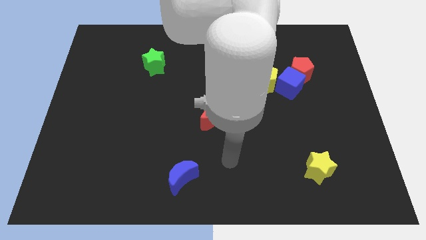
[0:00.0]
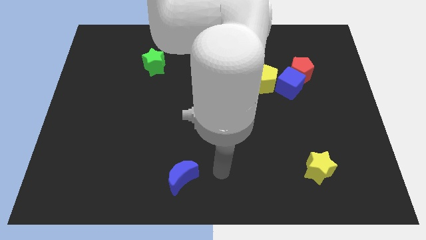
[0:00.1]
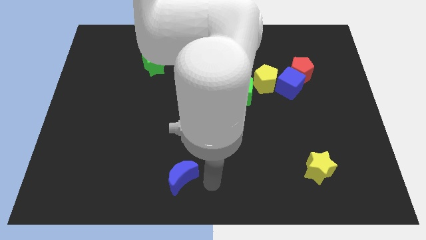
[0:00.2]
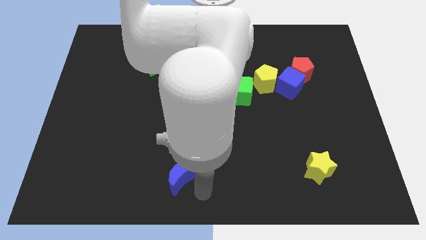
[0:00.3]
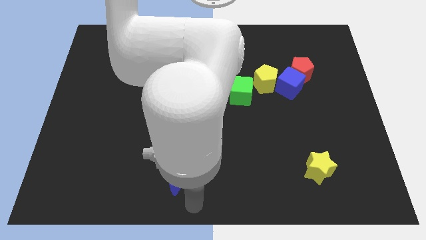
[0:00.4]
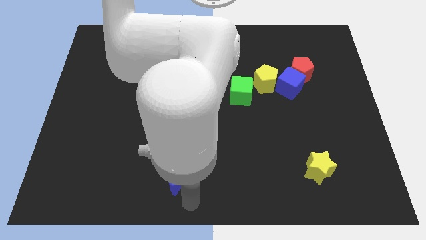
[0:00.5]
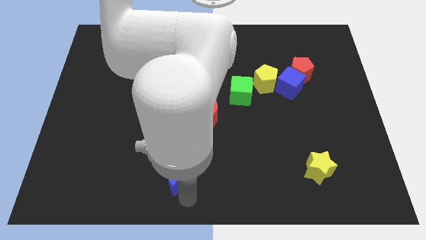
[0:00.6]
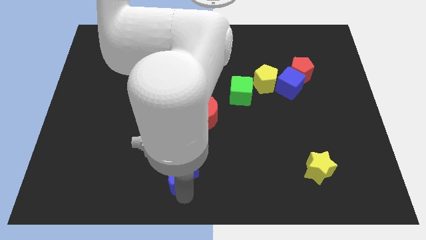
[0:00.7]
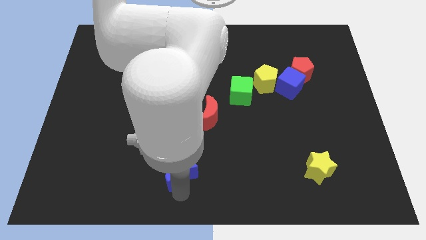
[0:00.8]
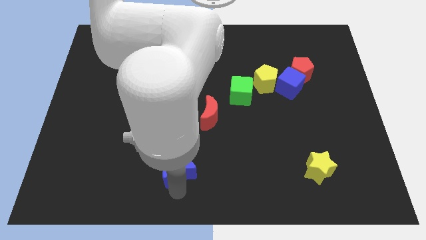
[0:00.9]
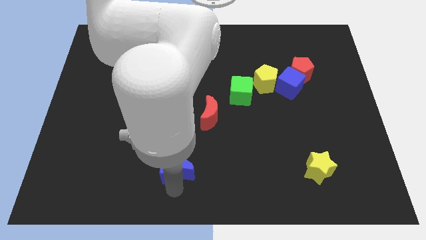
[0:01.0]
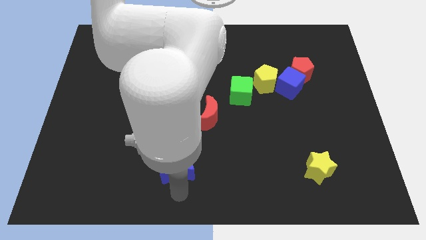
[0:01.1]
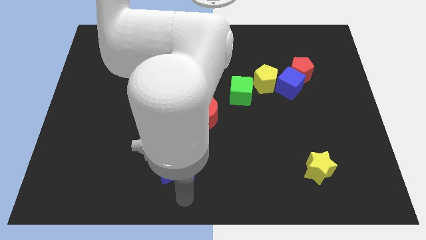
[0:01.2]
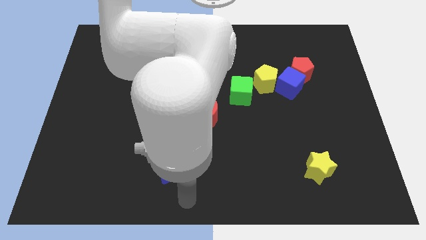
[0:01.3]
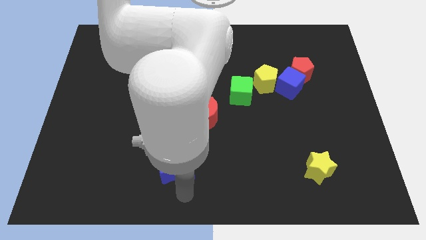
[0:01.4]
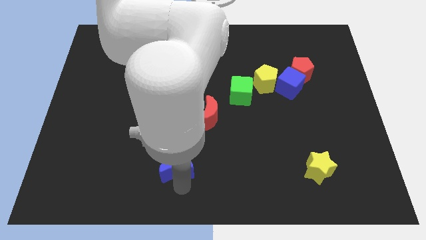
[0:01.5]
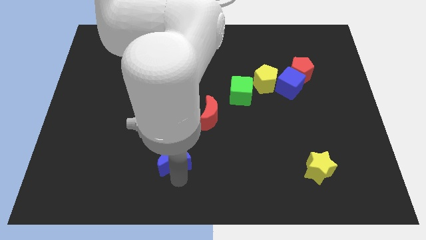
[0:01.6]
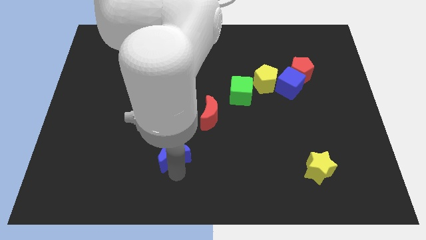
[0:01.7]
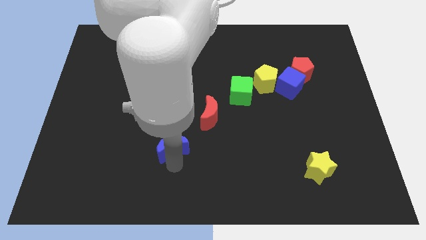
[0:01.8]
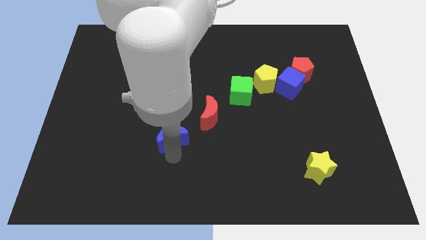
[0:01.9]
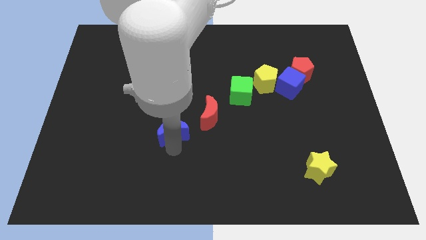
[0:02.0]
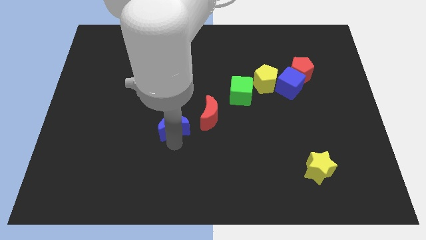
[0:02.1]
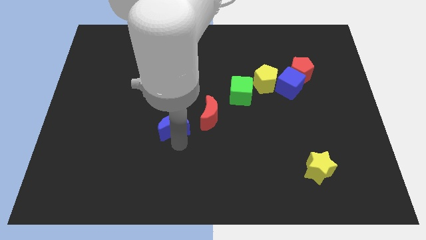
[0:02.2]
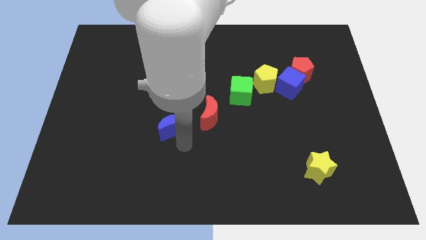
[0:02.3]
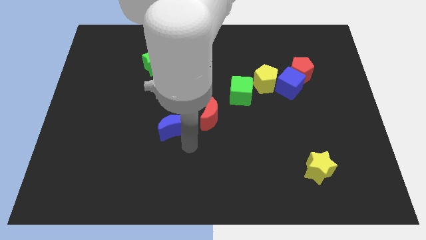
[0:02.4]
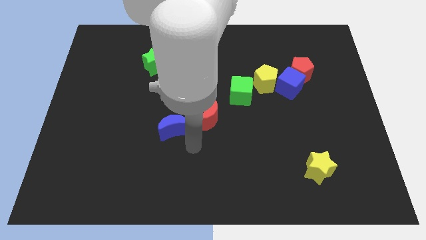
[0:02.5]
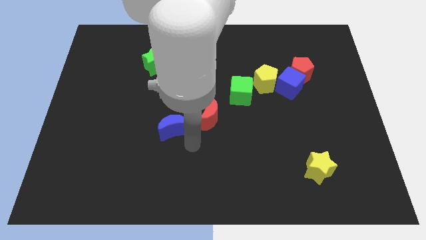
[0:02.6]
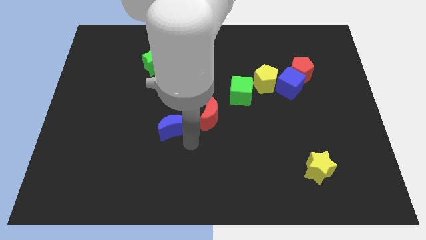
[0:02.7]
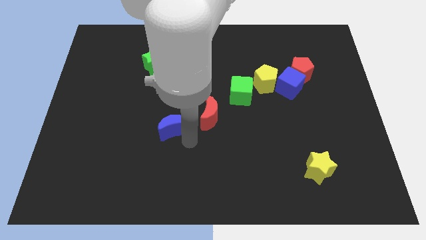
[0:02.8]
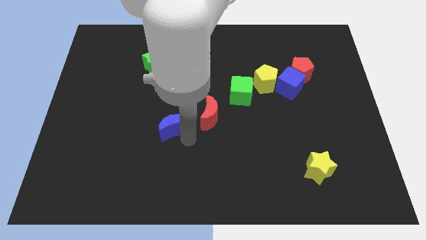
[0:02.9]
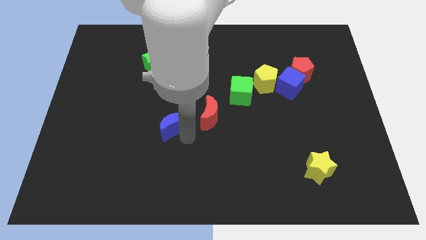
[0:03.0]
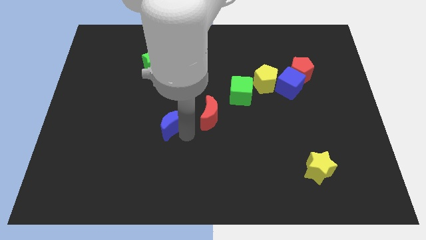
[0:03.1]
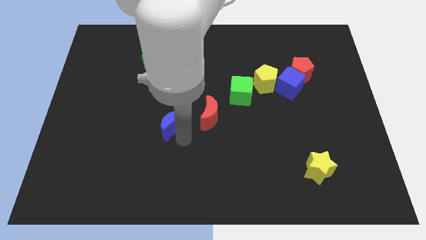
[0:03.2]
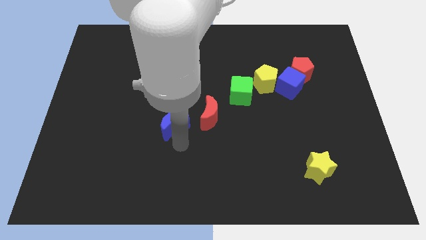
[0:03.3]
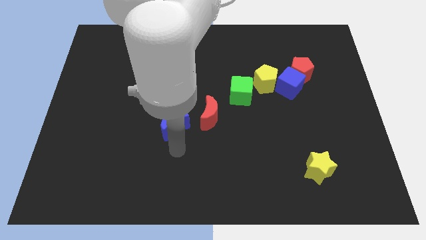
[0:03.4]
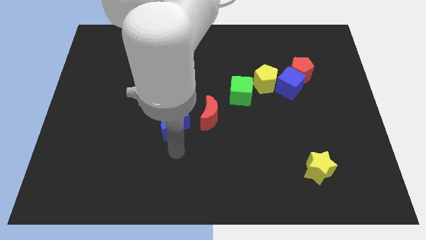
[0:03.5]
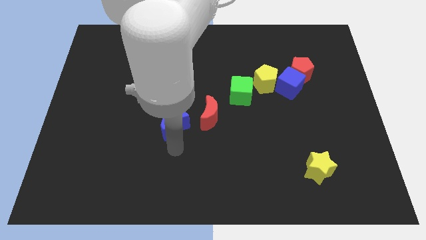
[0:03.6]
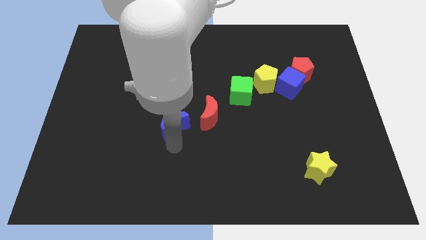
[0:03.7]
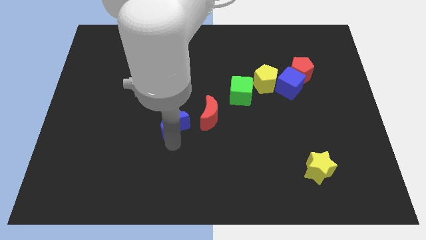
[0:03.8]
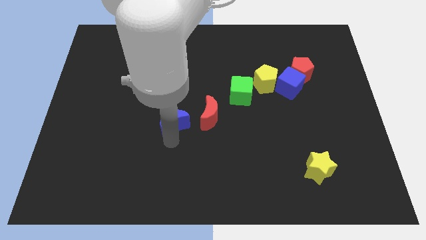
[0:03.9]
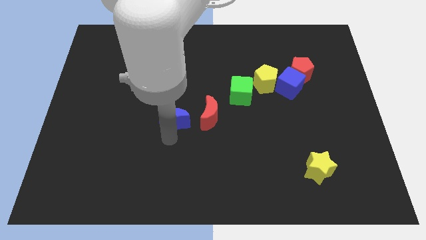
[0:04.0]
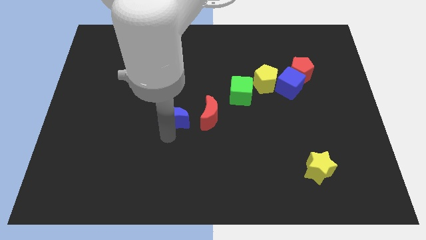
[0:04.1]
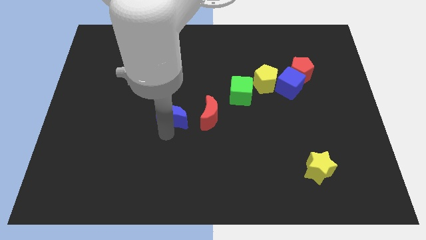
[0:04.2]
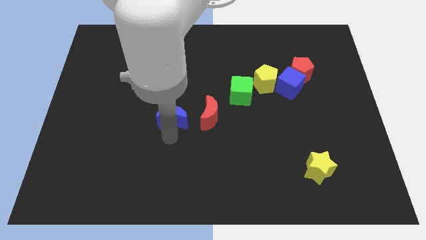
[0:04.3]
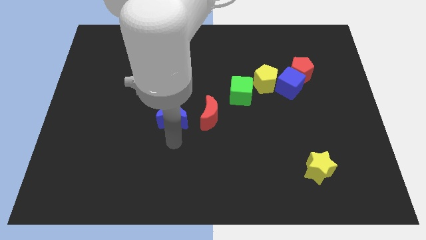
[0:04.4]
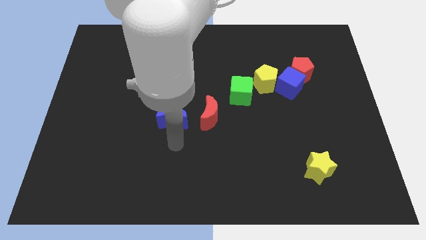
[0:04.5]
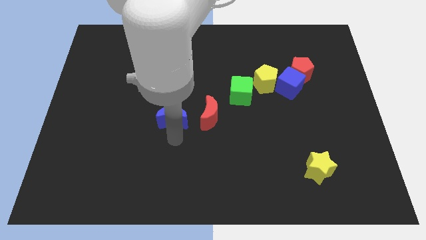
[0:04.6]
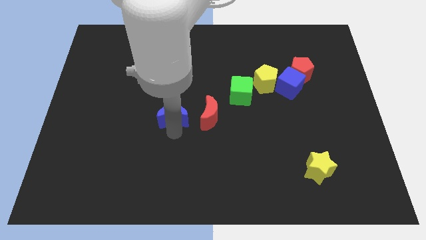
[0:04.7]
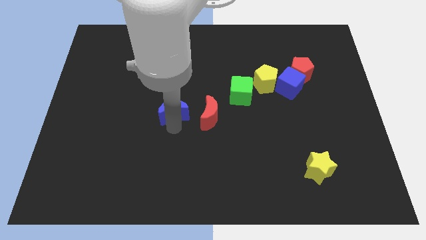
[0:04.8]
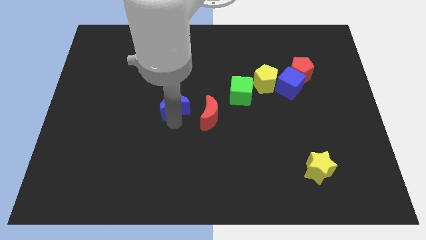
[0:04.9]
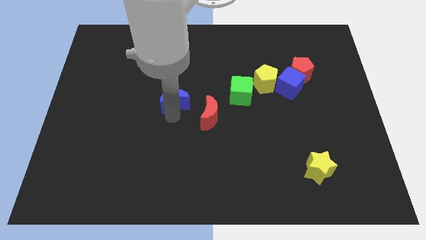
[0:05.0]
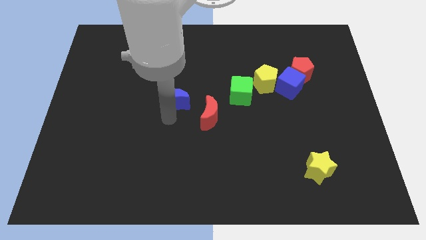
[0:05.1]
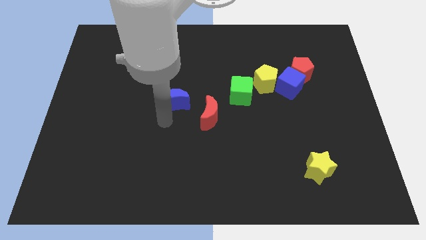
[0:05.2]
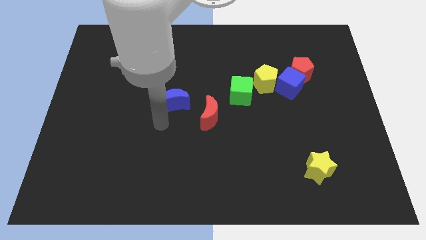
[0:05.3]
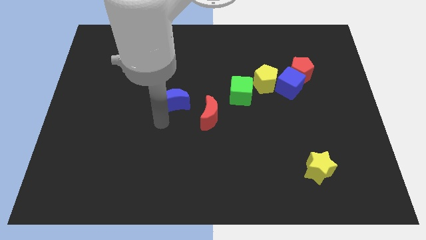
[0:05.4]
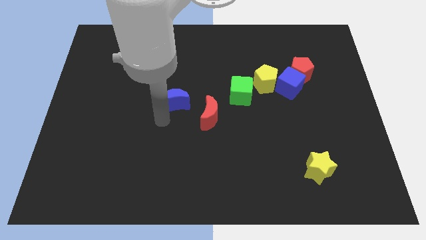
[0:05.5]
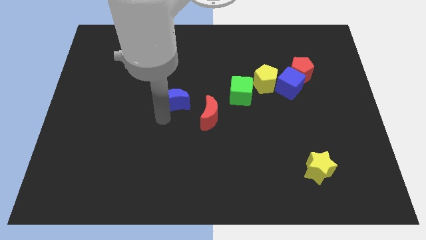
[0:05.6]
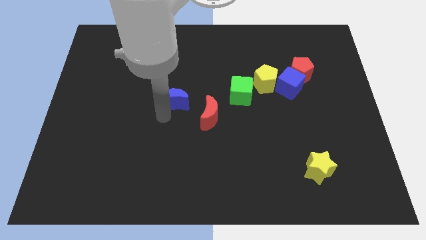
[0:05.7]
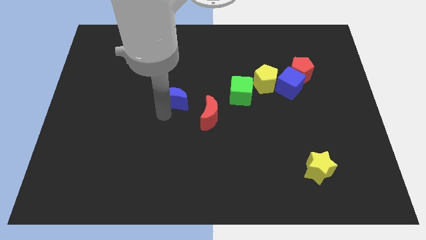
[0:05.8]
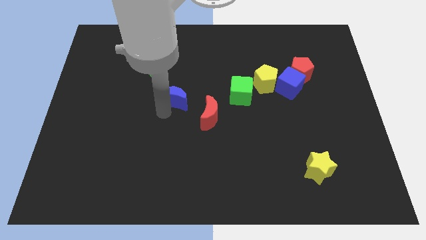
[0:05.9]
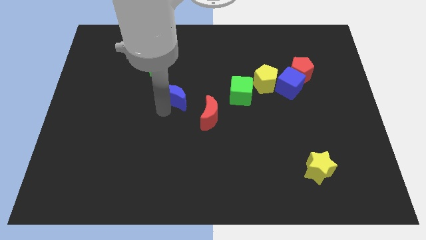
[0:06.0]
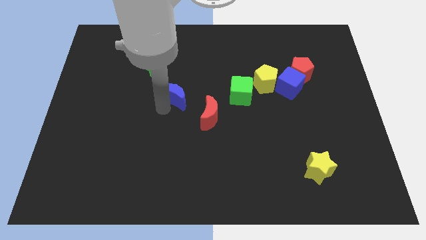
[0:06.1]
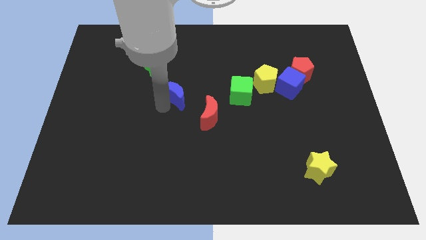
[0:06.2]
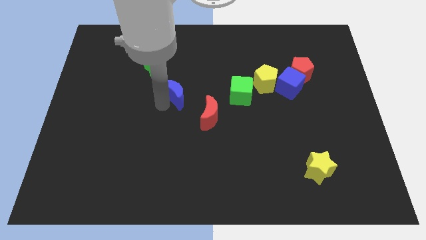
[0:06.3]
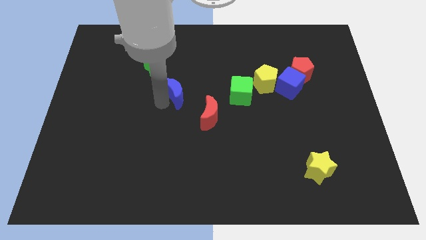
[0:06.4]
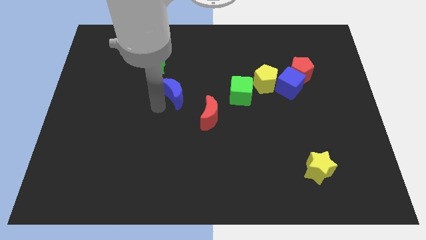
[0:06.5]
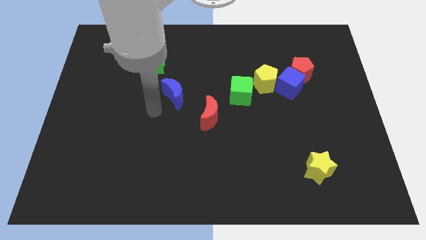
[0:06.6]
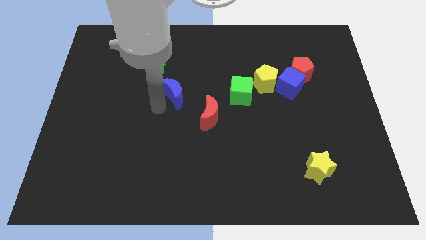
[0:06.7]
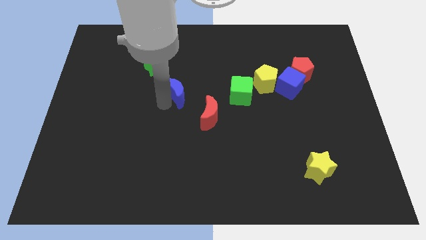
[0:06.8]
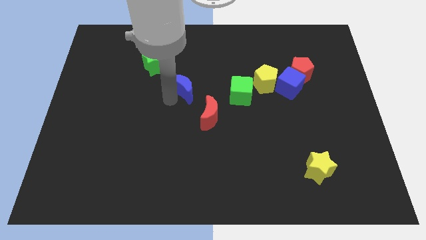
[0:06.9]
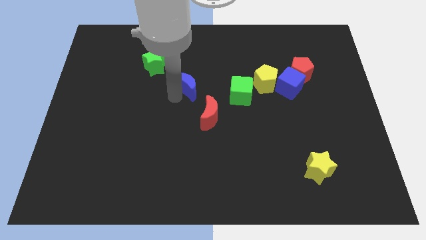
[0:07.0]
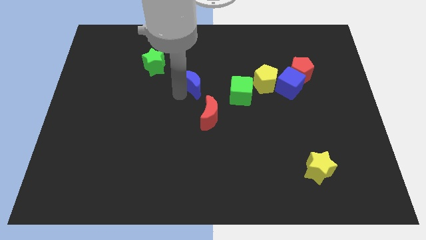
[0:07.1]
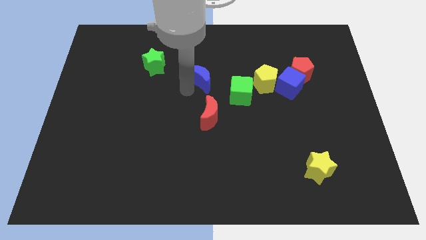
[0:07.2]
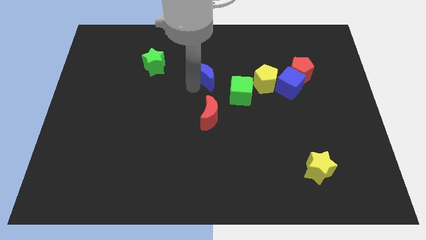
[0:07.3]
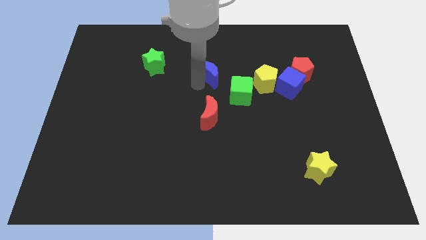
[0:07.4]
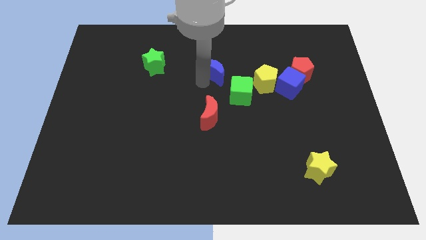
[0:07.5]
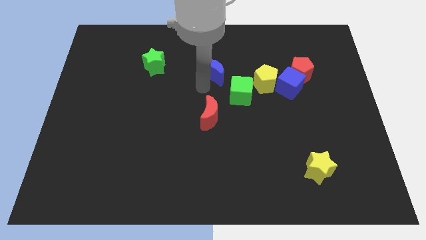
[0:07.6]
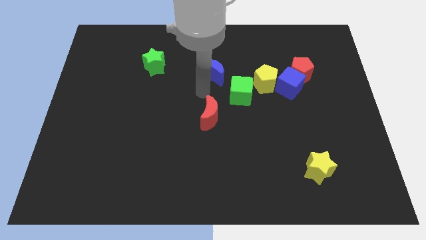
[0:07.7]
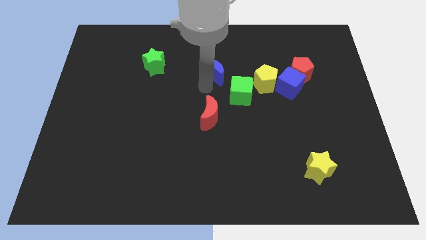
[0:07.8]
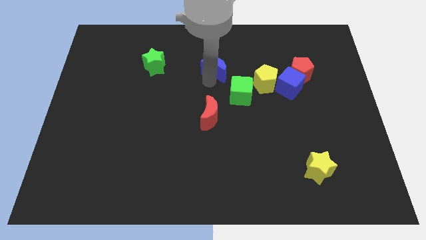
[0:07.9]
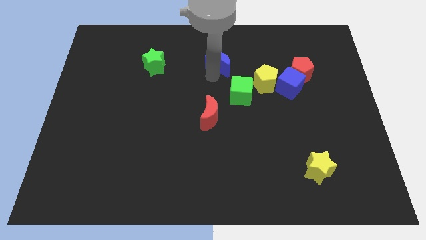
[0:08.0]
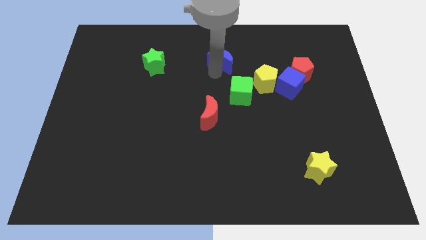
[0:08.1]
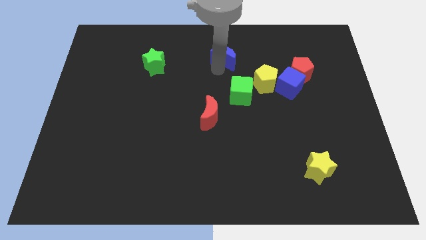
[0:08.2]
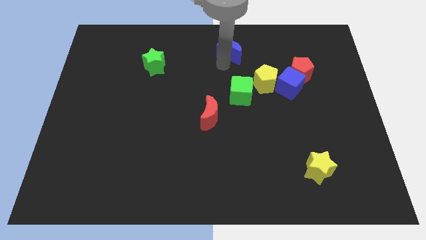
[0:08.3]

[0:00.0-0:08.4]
slide the blue moon to the top
